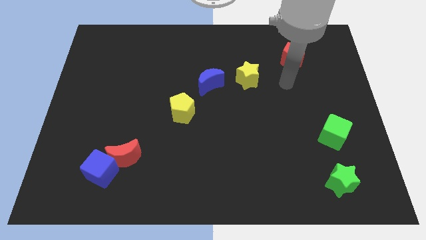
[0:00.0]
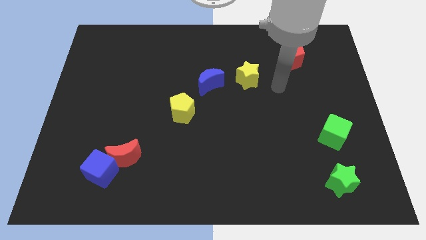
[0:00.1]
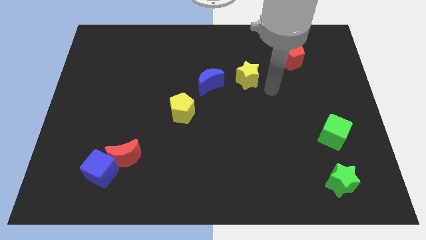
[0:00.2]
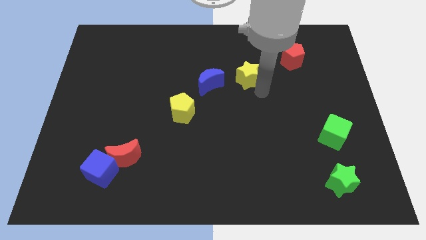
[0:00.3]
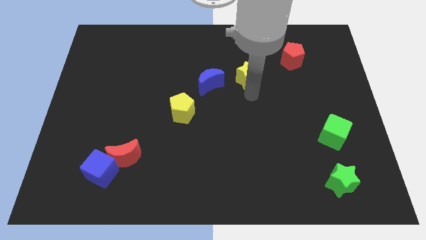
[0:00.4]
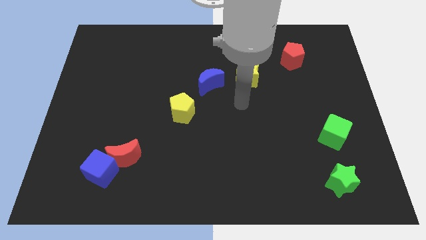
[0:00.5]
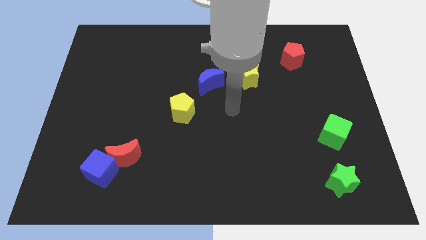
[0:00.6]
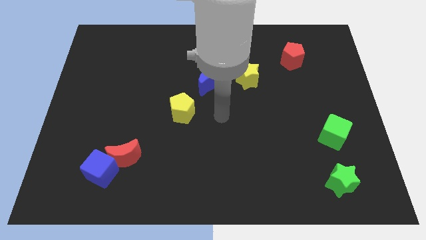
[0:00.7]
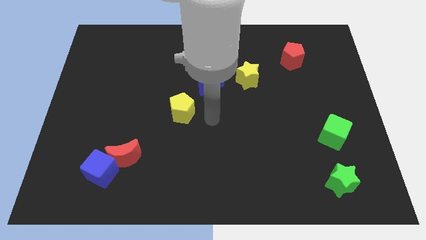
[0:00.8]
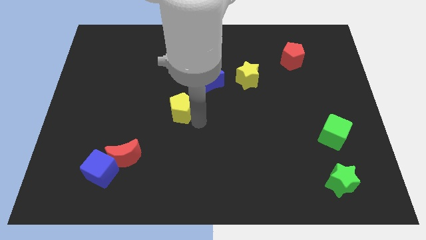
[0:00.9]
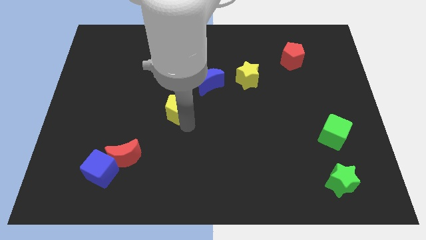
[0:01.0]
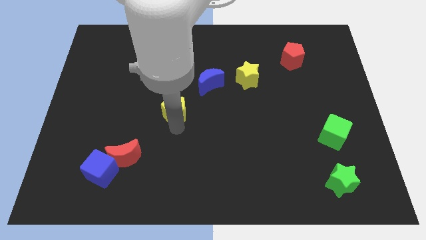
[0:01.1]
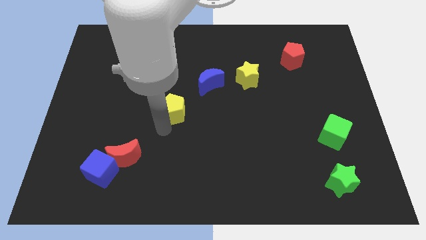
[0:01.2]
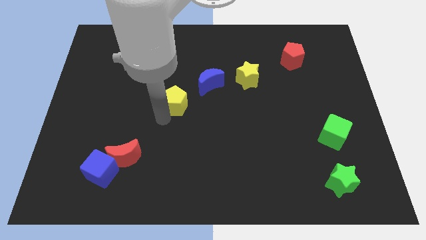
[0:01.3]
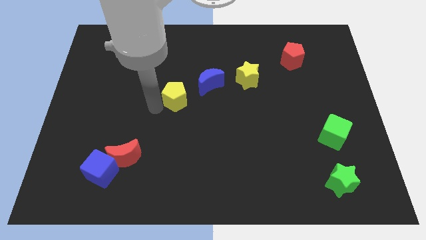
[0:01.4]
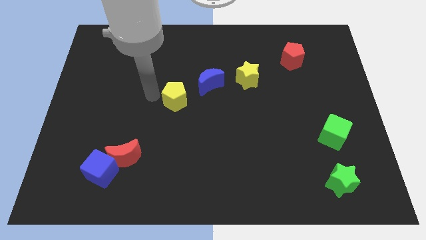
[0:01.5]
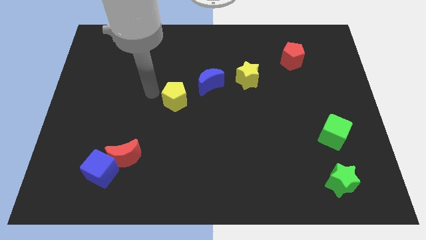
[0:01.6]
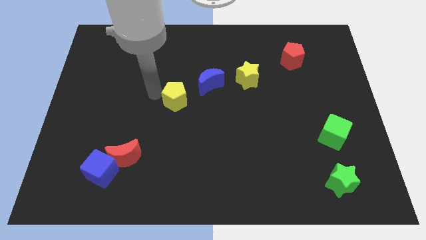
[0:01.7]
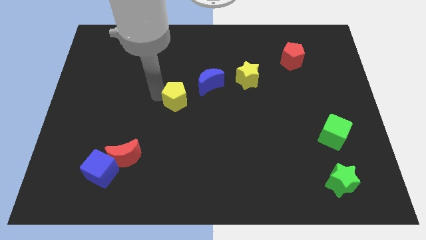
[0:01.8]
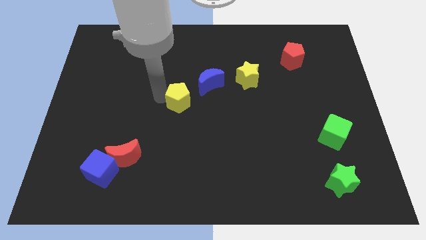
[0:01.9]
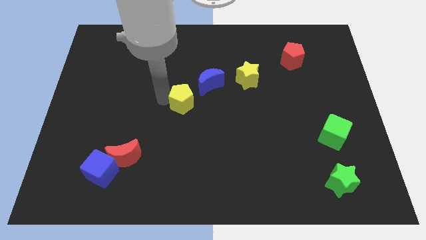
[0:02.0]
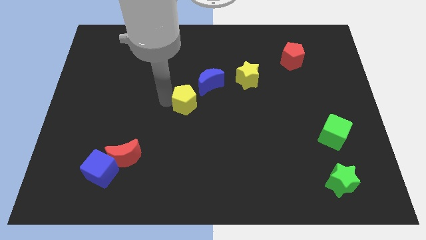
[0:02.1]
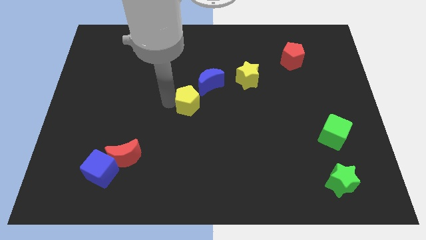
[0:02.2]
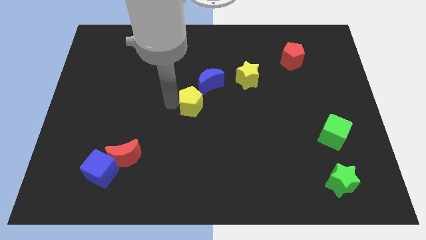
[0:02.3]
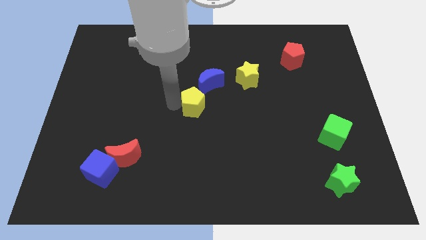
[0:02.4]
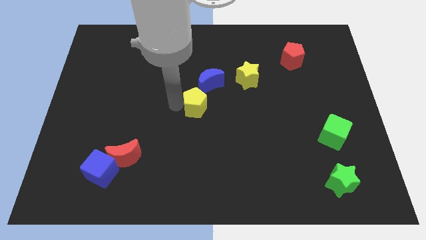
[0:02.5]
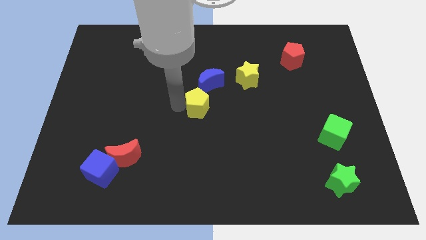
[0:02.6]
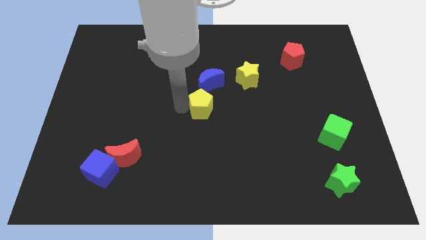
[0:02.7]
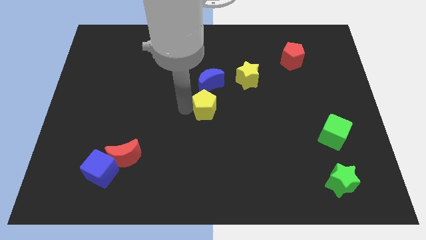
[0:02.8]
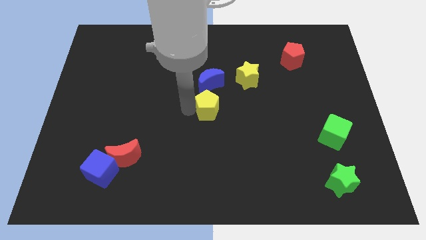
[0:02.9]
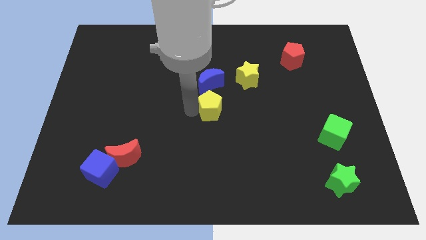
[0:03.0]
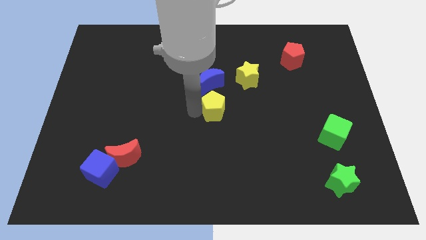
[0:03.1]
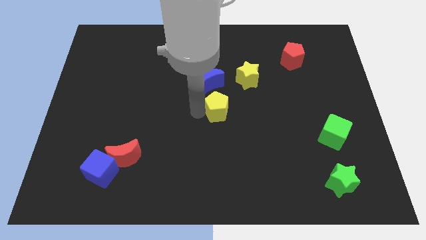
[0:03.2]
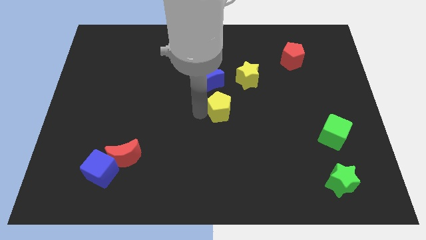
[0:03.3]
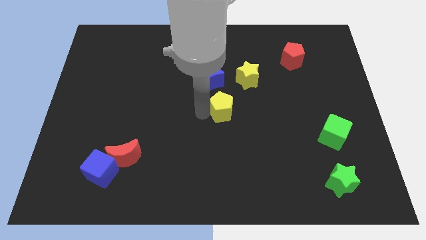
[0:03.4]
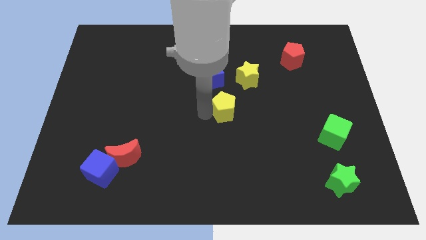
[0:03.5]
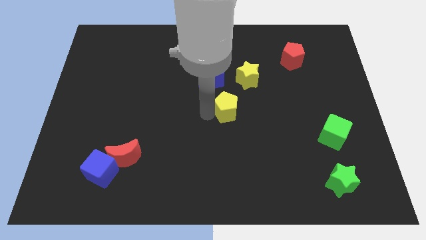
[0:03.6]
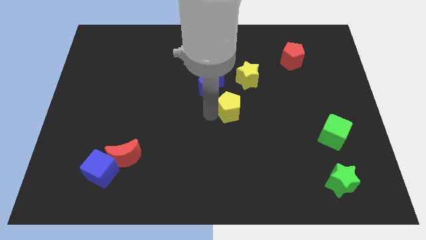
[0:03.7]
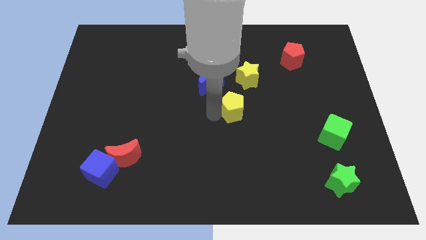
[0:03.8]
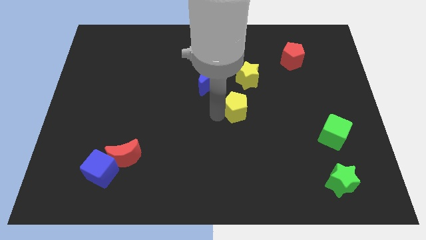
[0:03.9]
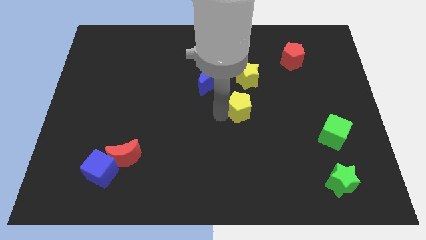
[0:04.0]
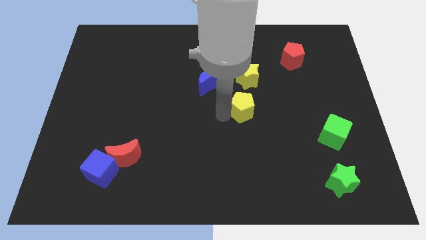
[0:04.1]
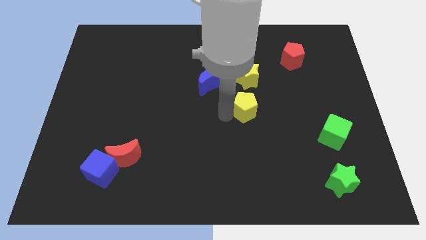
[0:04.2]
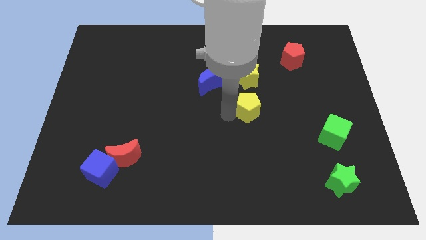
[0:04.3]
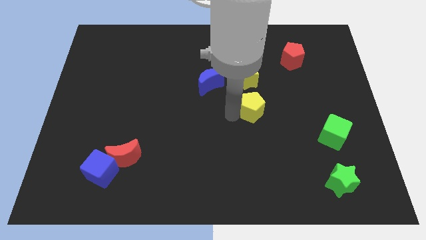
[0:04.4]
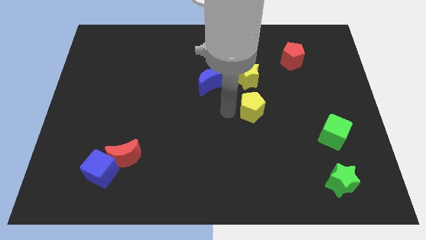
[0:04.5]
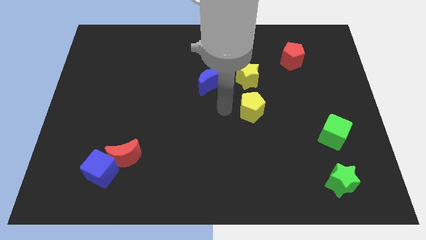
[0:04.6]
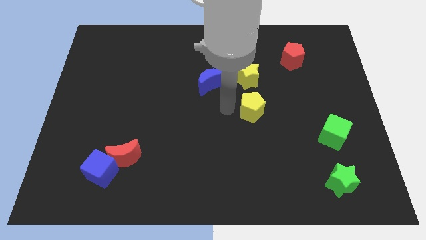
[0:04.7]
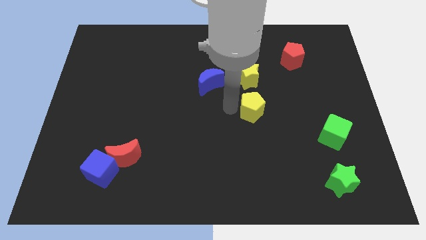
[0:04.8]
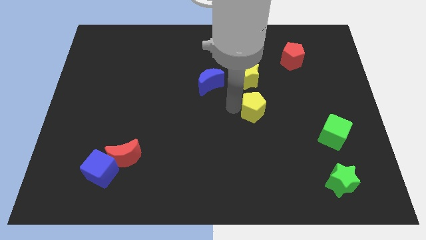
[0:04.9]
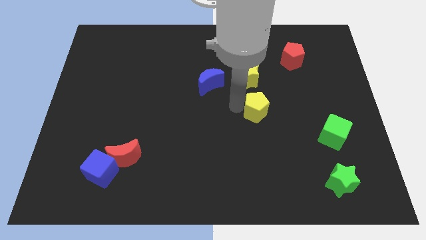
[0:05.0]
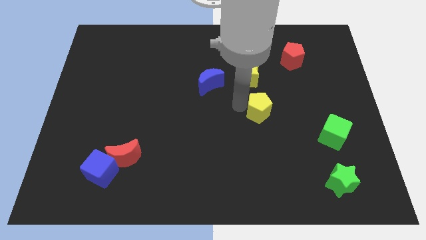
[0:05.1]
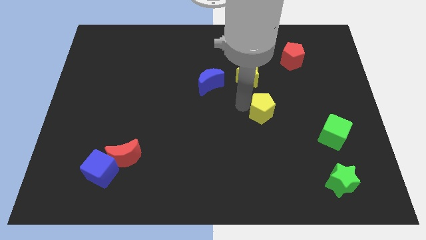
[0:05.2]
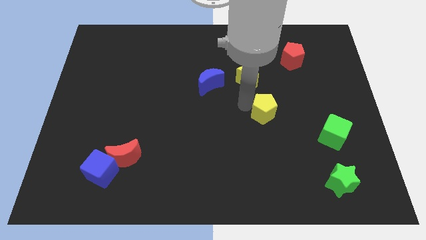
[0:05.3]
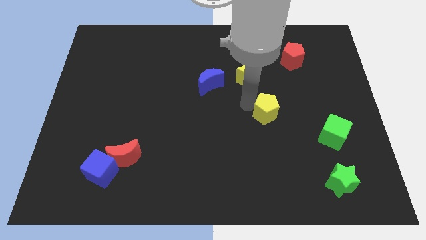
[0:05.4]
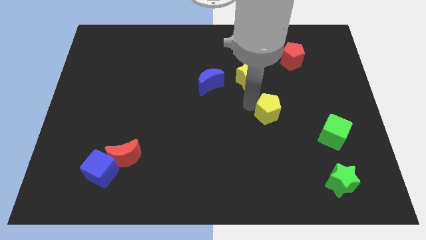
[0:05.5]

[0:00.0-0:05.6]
slide the yellow pentagon right

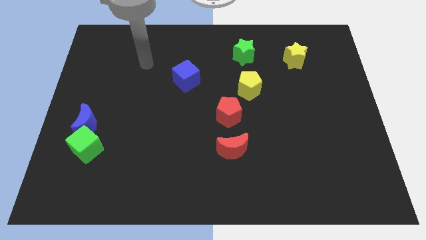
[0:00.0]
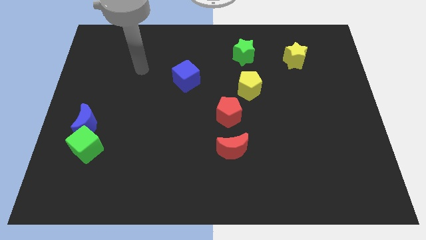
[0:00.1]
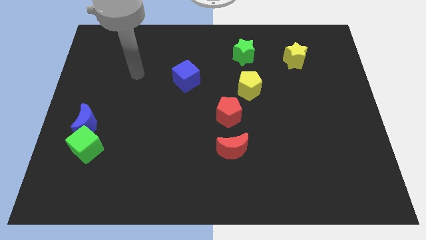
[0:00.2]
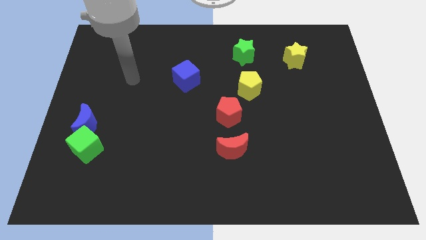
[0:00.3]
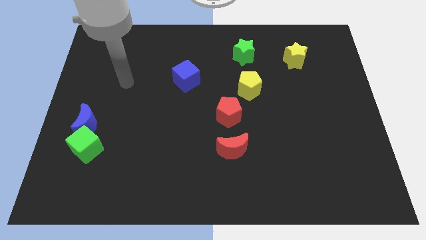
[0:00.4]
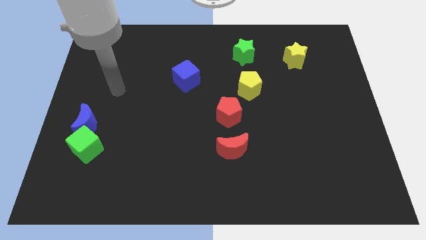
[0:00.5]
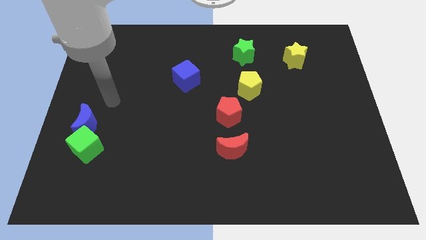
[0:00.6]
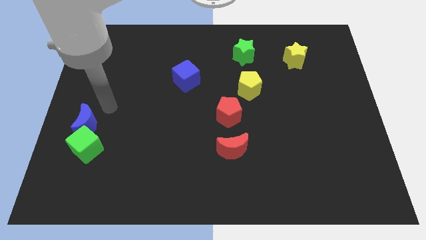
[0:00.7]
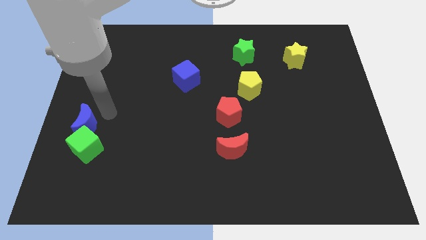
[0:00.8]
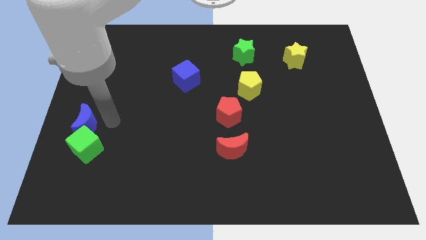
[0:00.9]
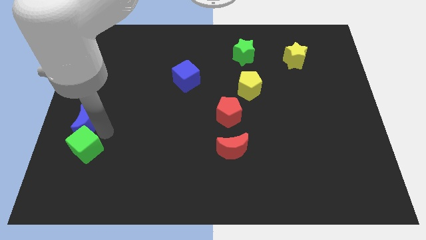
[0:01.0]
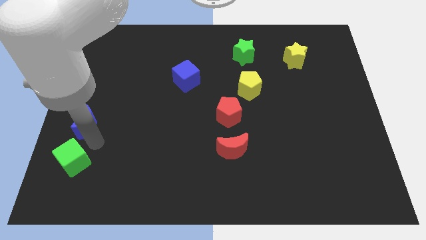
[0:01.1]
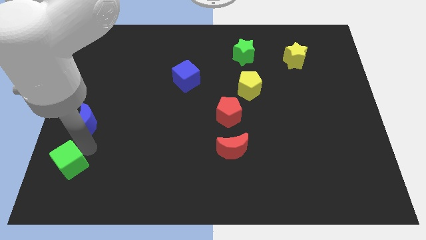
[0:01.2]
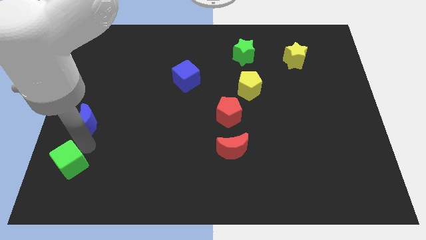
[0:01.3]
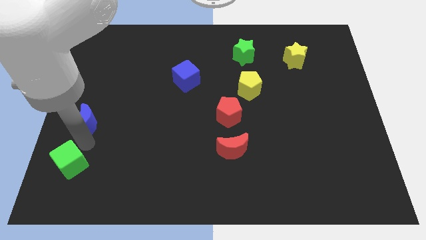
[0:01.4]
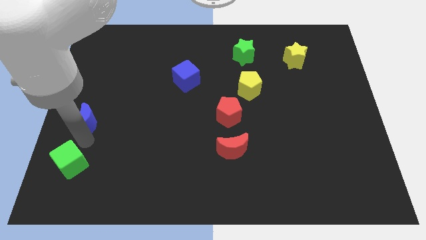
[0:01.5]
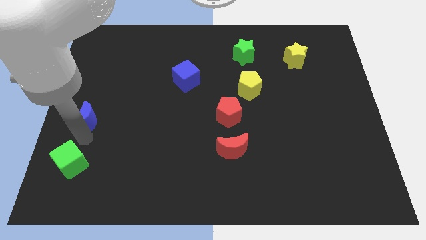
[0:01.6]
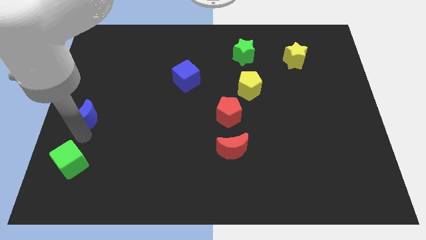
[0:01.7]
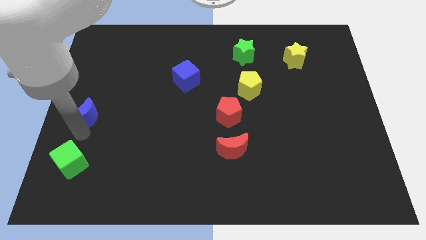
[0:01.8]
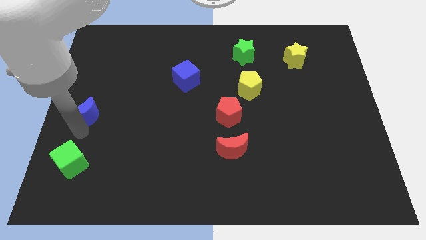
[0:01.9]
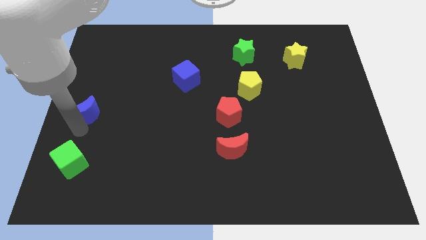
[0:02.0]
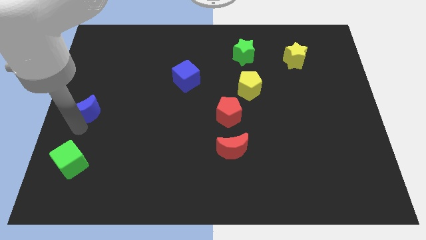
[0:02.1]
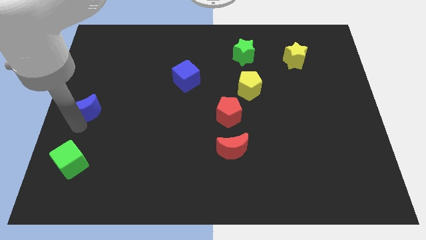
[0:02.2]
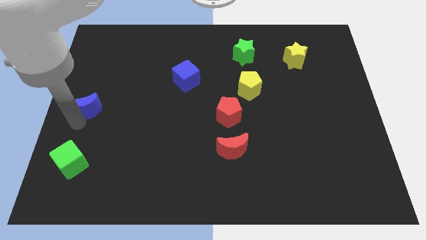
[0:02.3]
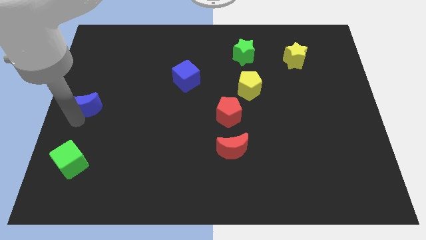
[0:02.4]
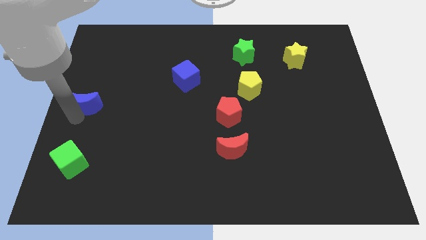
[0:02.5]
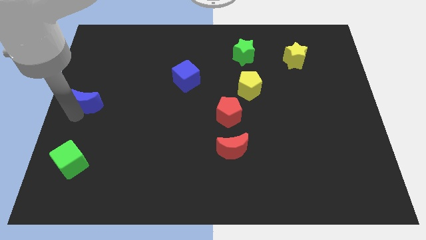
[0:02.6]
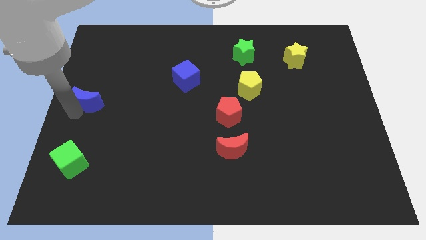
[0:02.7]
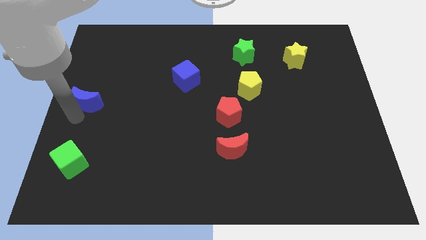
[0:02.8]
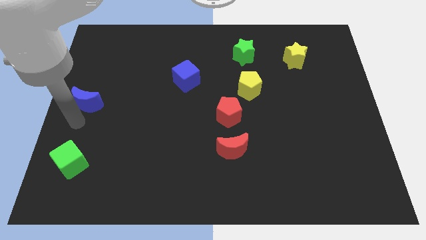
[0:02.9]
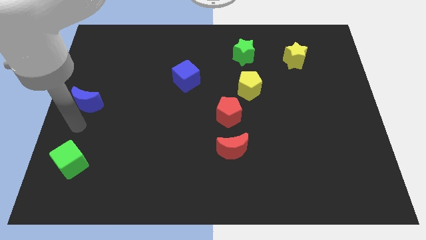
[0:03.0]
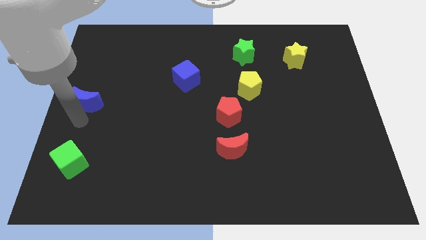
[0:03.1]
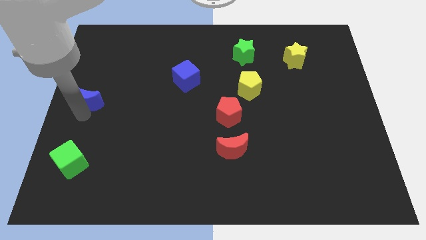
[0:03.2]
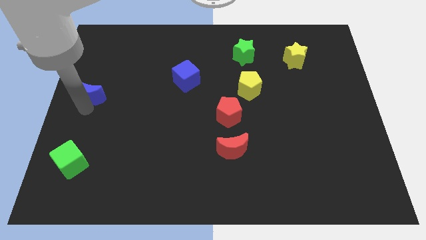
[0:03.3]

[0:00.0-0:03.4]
move the blue moon a little bit upwards
